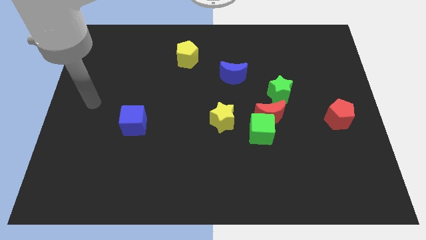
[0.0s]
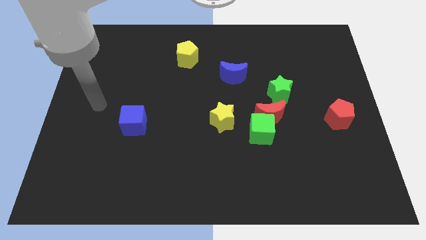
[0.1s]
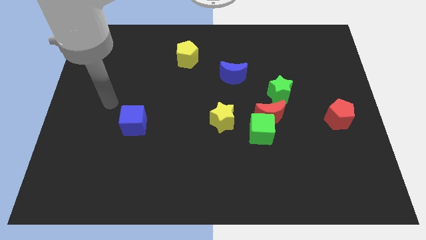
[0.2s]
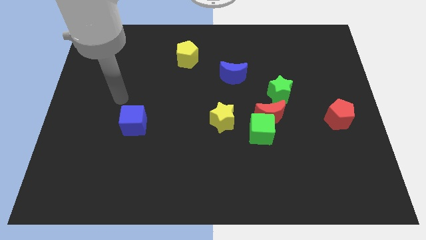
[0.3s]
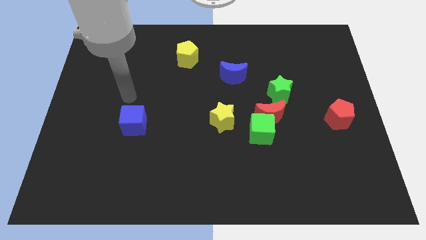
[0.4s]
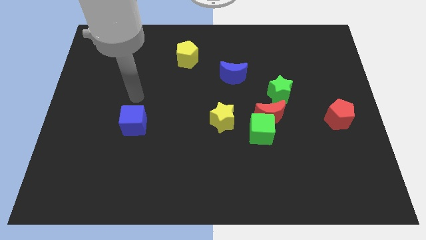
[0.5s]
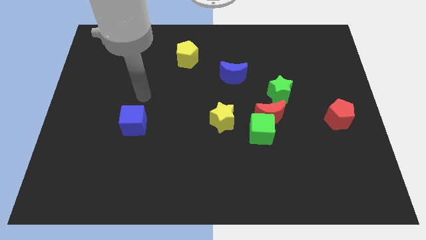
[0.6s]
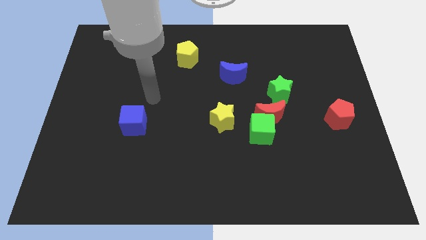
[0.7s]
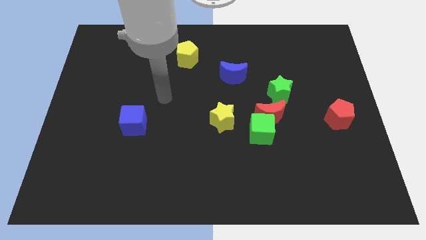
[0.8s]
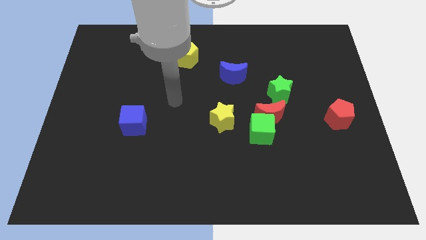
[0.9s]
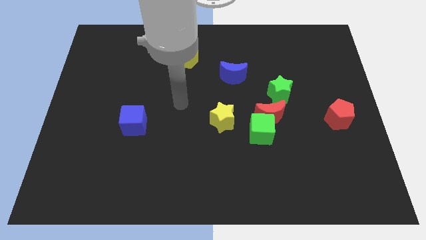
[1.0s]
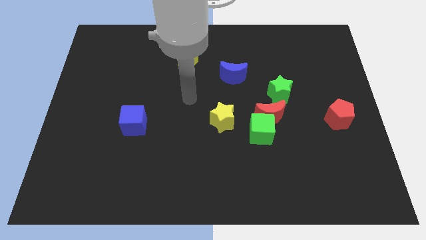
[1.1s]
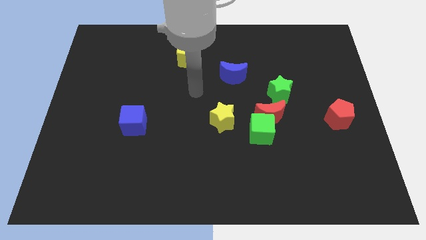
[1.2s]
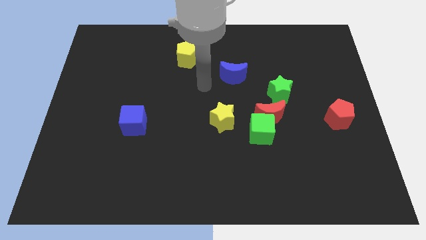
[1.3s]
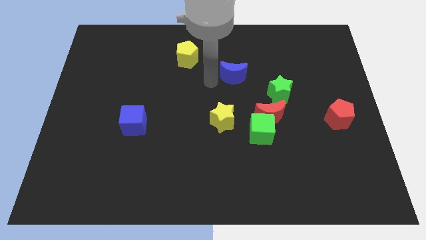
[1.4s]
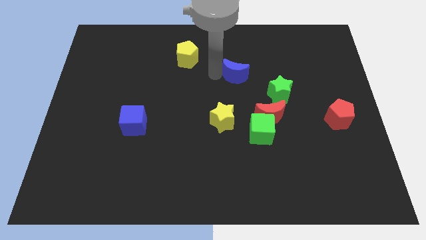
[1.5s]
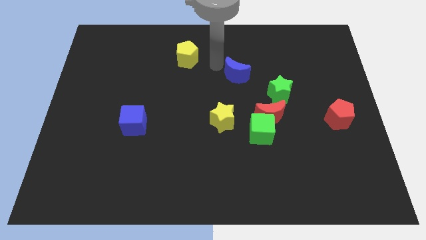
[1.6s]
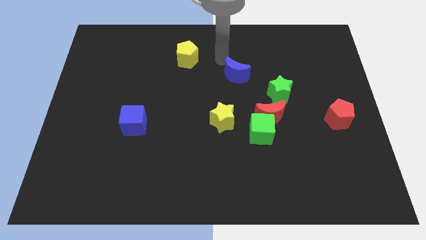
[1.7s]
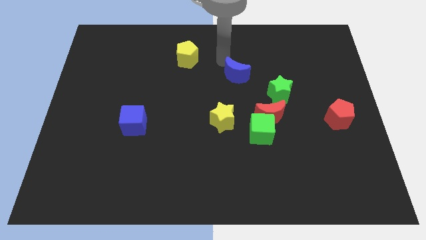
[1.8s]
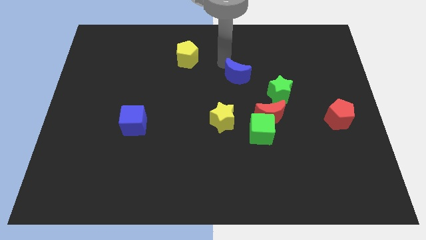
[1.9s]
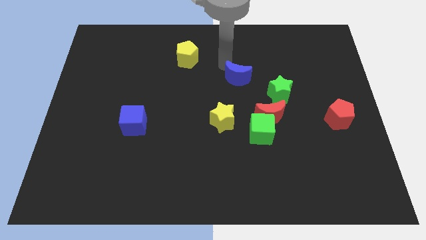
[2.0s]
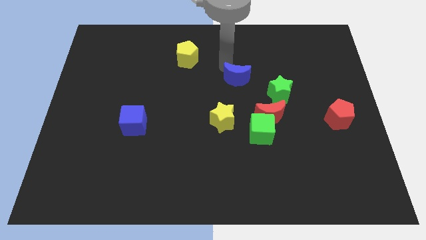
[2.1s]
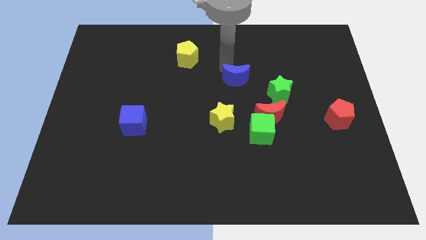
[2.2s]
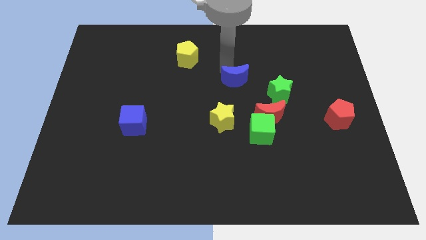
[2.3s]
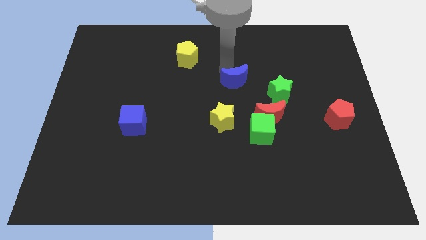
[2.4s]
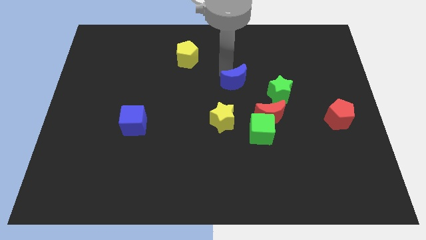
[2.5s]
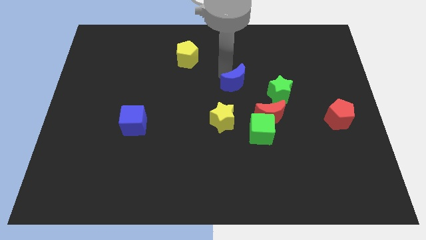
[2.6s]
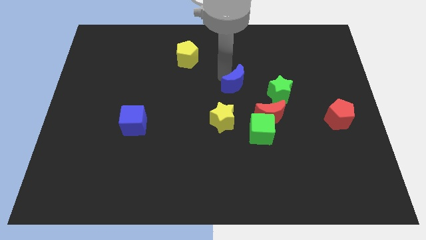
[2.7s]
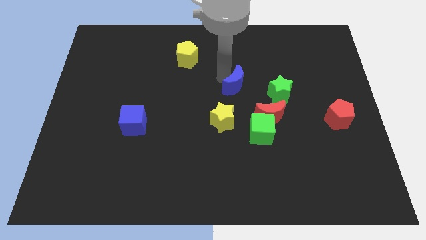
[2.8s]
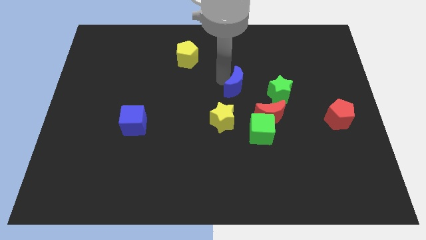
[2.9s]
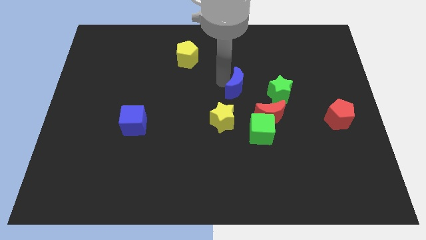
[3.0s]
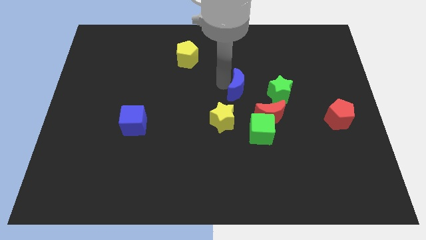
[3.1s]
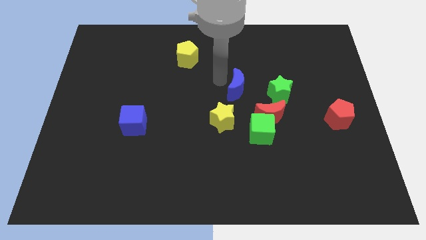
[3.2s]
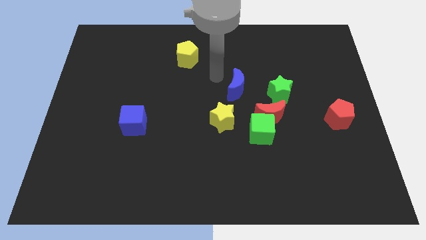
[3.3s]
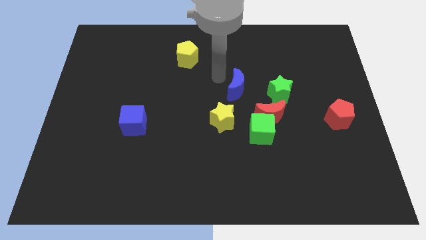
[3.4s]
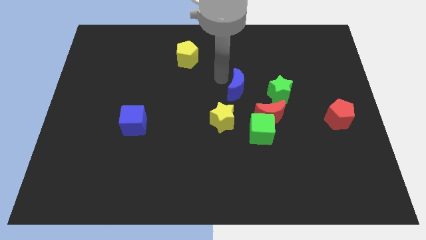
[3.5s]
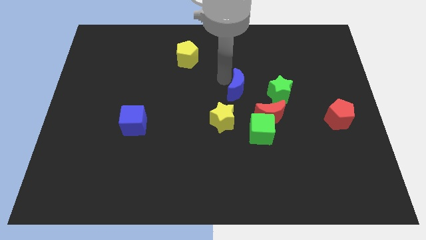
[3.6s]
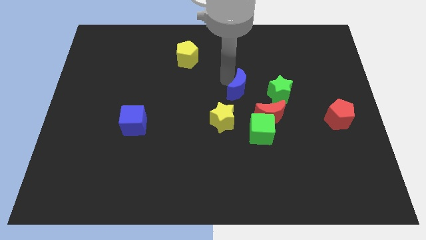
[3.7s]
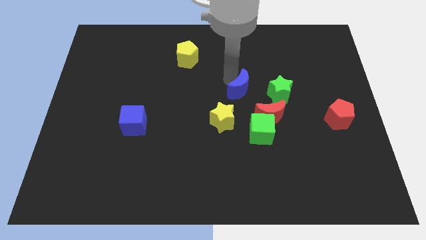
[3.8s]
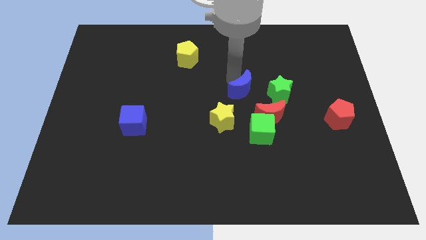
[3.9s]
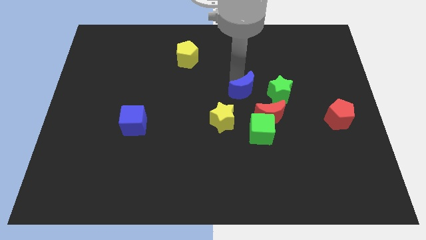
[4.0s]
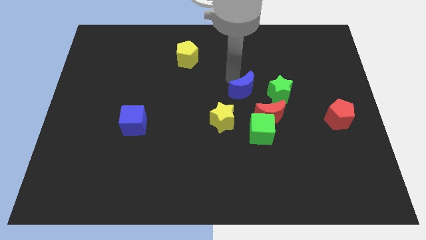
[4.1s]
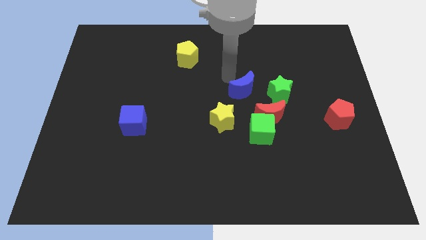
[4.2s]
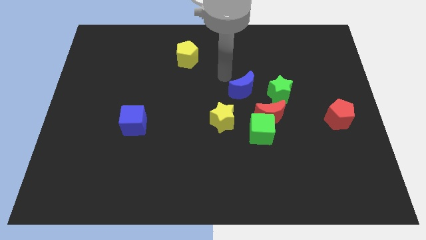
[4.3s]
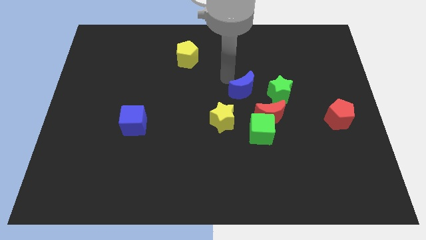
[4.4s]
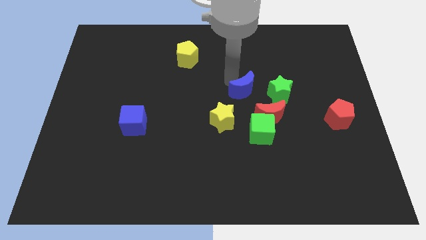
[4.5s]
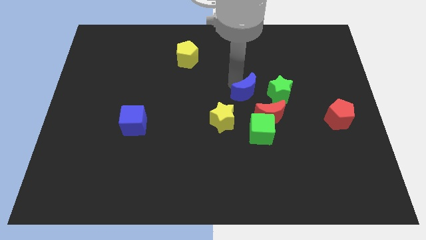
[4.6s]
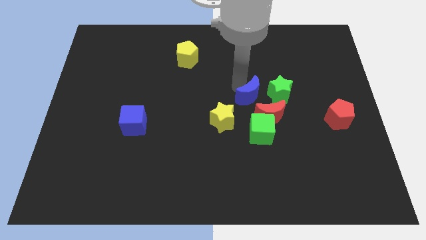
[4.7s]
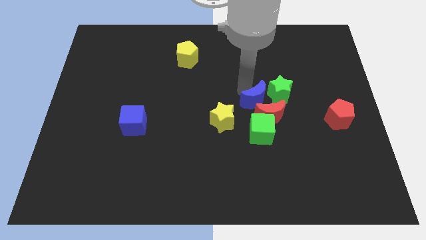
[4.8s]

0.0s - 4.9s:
put the blue moon next to the red moon

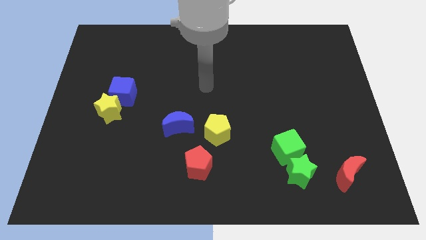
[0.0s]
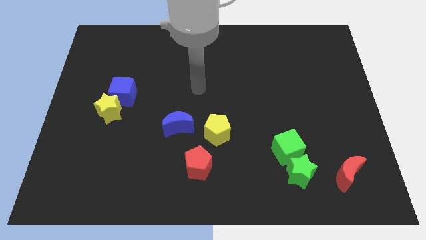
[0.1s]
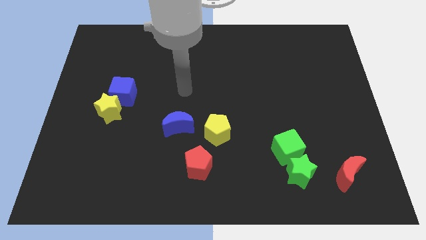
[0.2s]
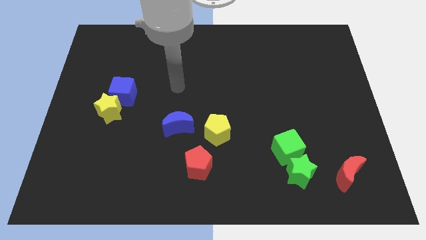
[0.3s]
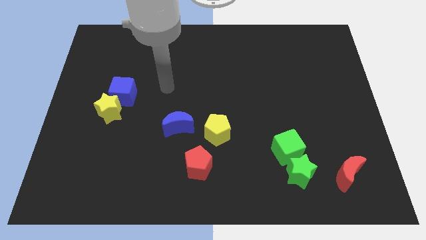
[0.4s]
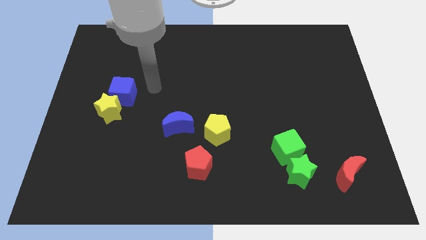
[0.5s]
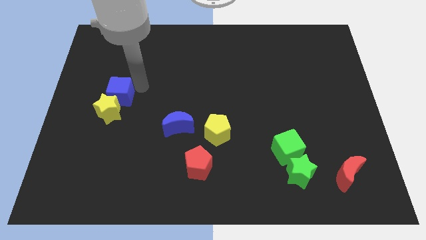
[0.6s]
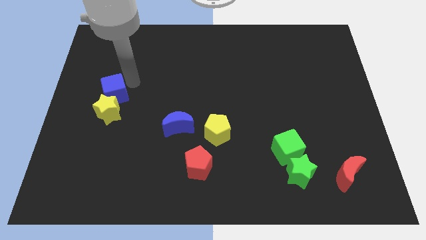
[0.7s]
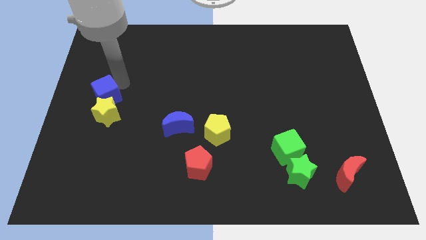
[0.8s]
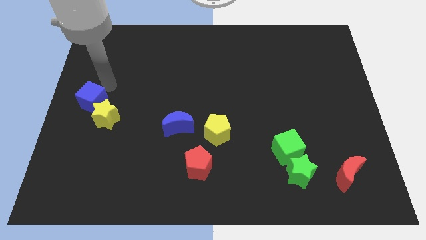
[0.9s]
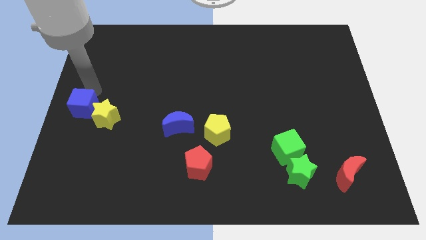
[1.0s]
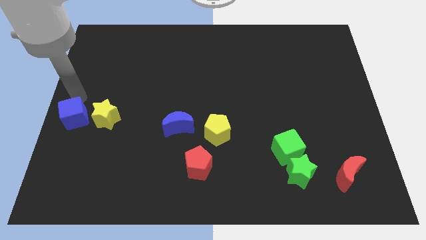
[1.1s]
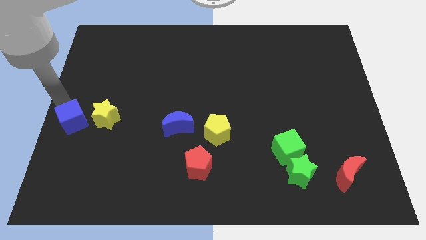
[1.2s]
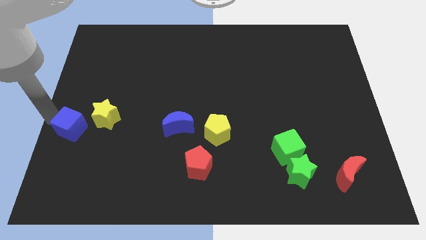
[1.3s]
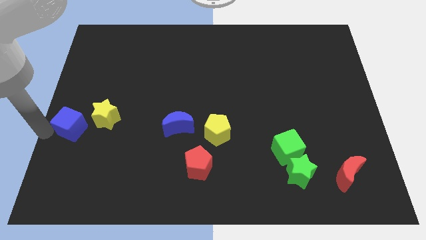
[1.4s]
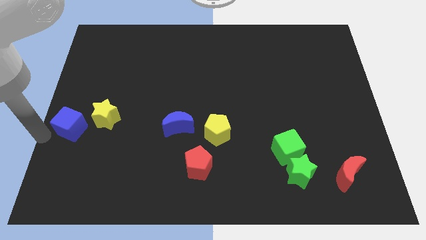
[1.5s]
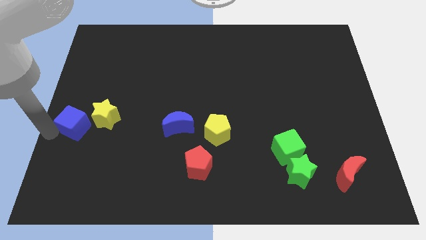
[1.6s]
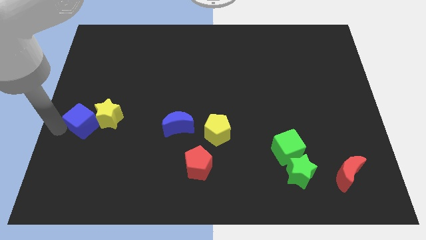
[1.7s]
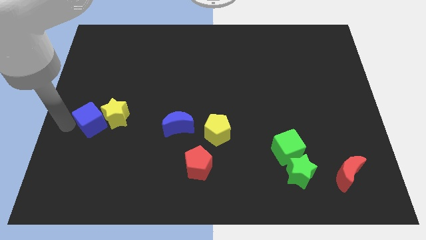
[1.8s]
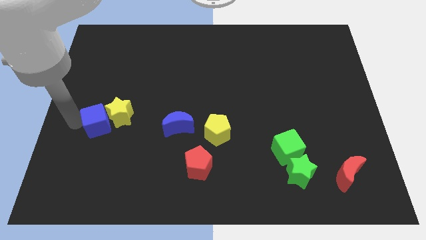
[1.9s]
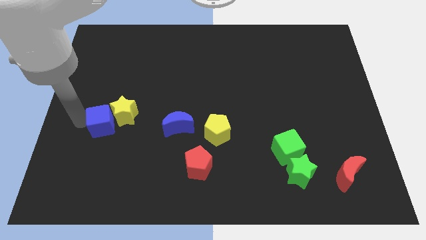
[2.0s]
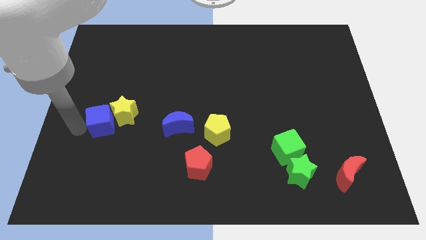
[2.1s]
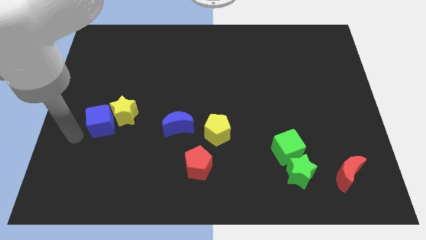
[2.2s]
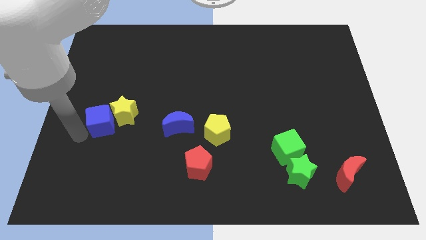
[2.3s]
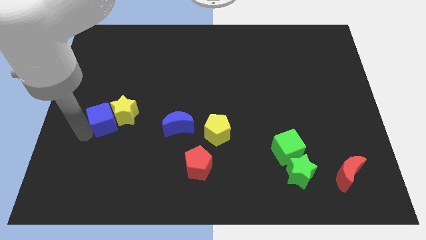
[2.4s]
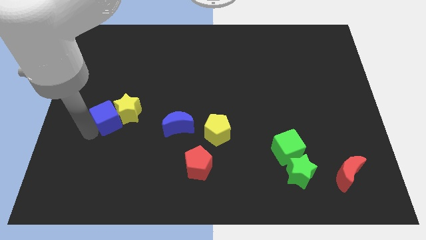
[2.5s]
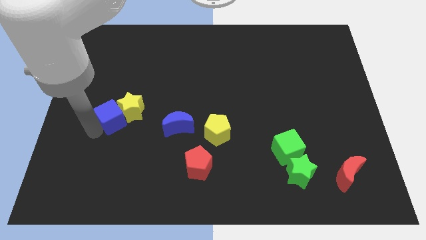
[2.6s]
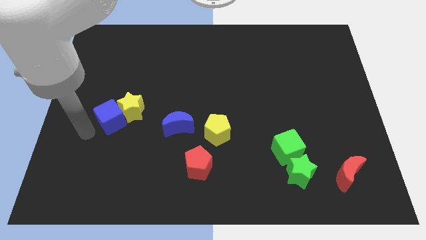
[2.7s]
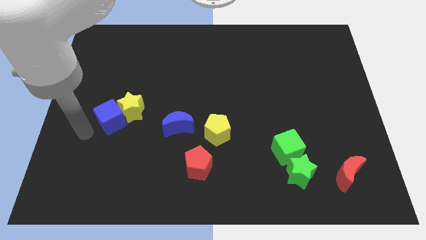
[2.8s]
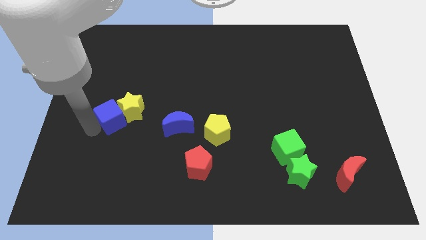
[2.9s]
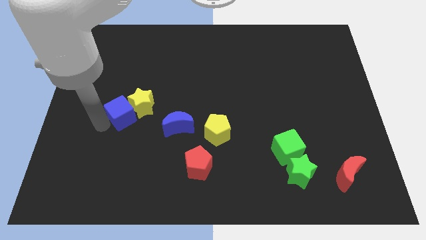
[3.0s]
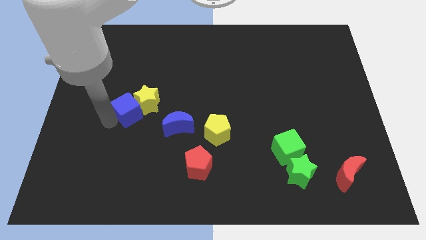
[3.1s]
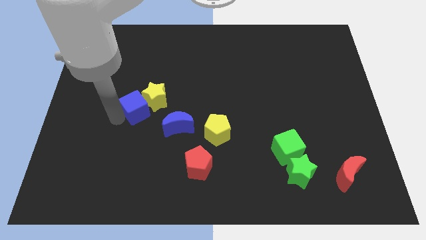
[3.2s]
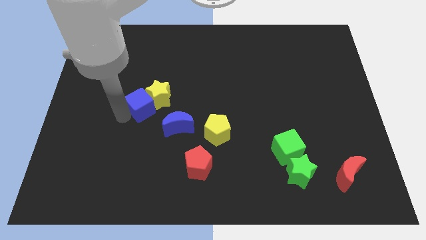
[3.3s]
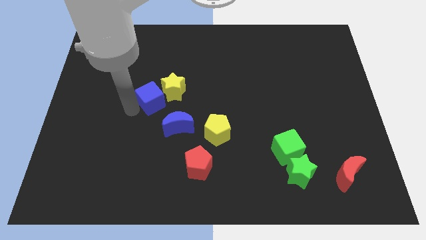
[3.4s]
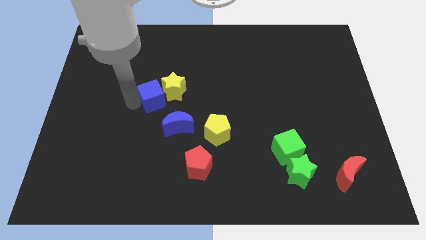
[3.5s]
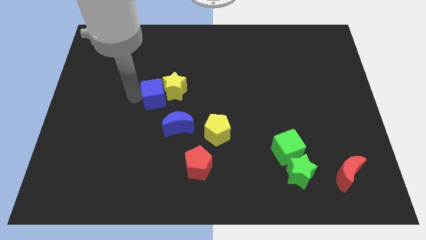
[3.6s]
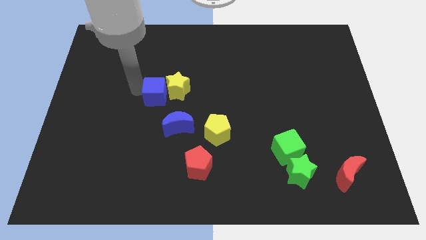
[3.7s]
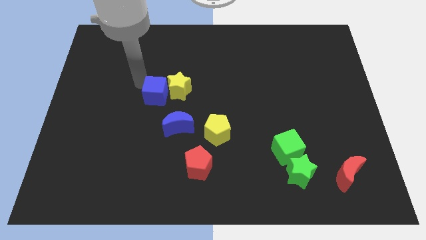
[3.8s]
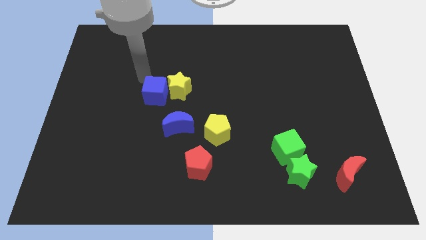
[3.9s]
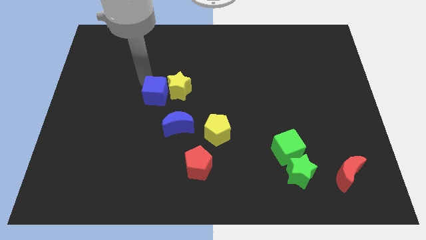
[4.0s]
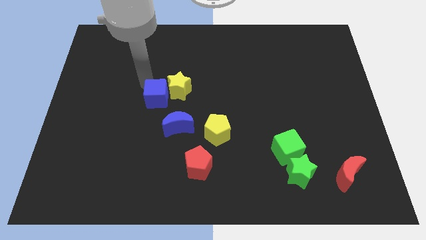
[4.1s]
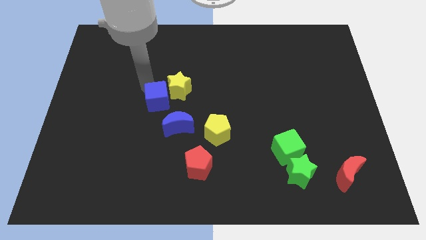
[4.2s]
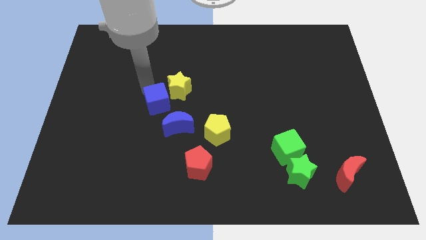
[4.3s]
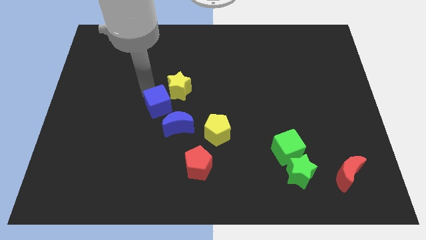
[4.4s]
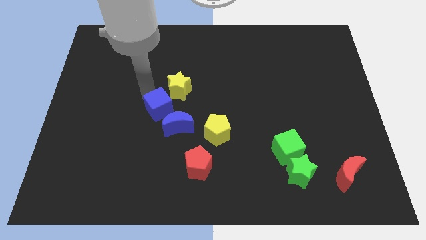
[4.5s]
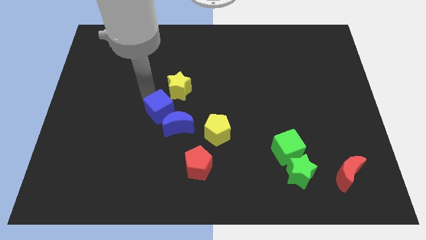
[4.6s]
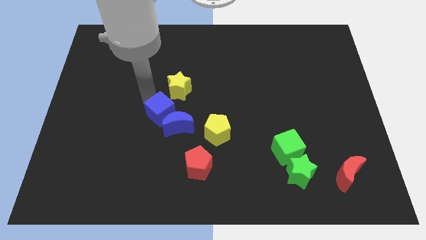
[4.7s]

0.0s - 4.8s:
put the blue cube next to the blue moon
